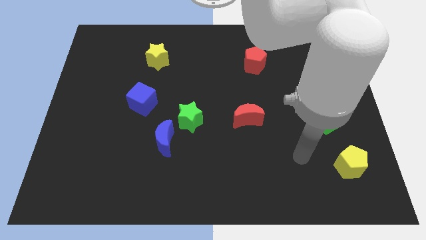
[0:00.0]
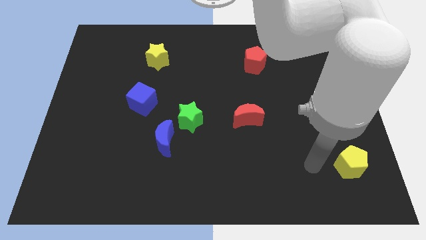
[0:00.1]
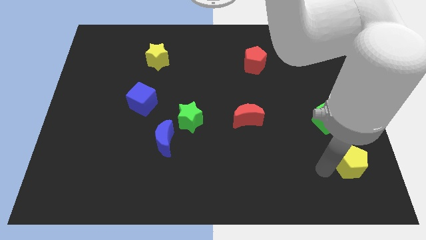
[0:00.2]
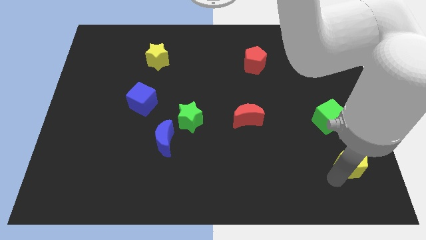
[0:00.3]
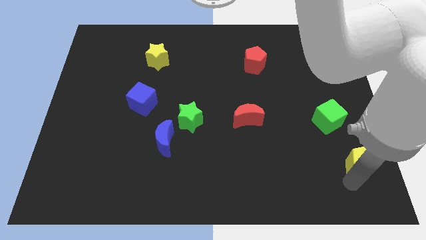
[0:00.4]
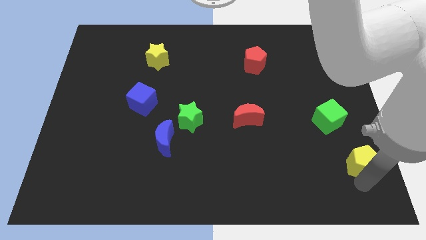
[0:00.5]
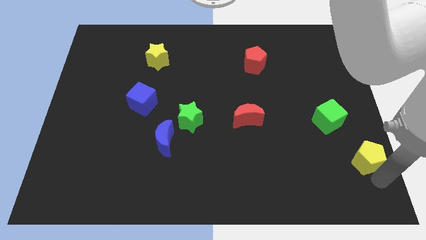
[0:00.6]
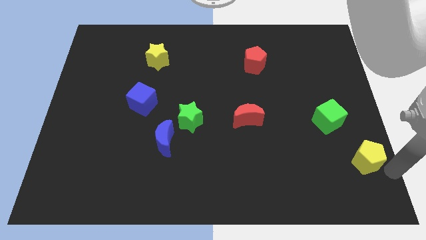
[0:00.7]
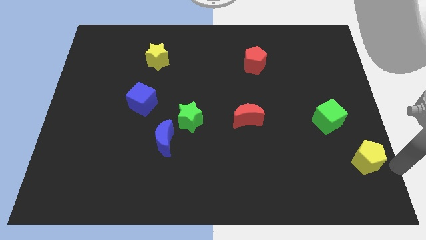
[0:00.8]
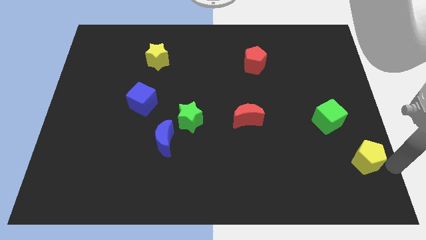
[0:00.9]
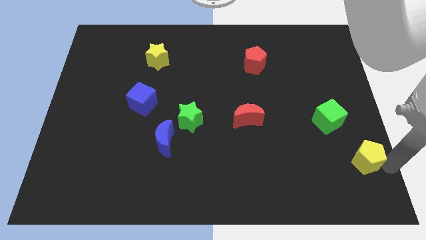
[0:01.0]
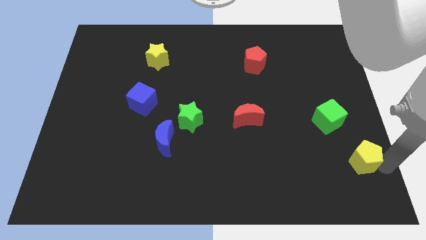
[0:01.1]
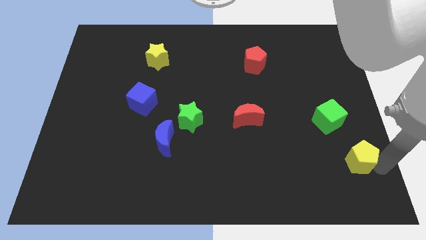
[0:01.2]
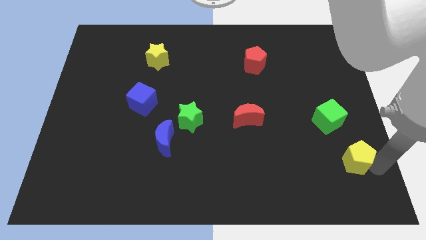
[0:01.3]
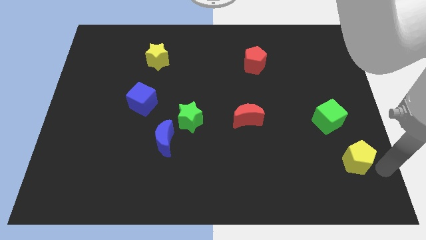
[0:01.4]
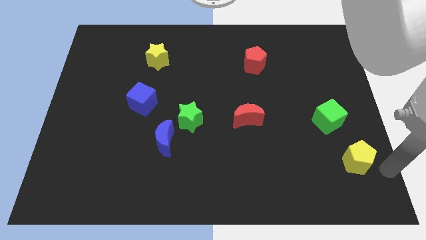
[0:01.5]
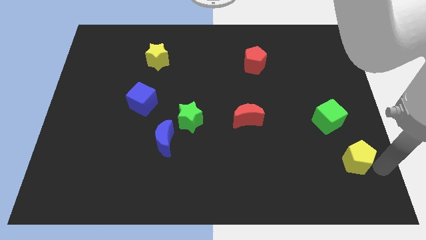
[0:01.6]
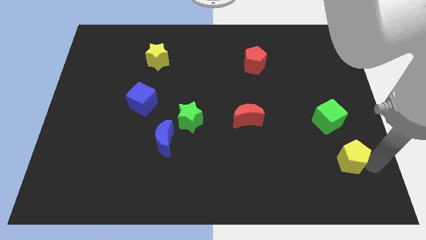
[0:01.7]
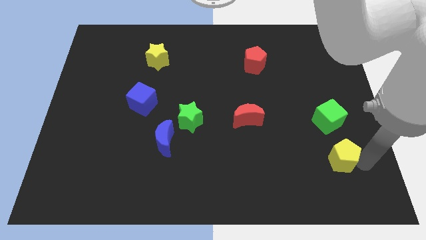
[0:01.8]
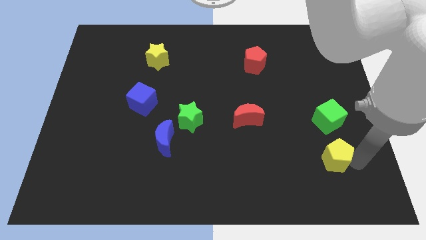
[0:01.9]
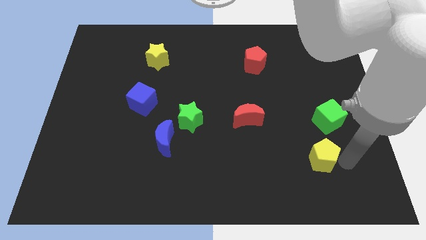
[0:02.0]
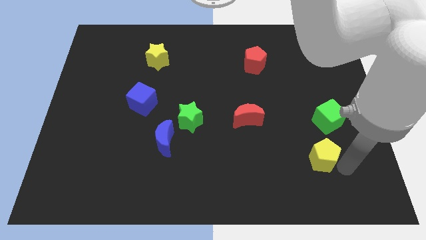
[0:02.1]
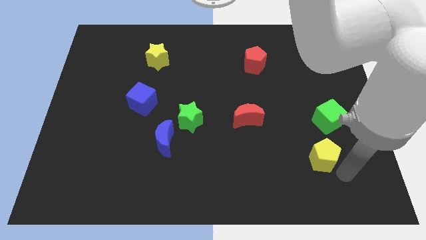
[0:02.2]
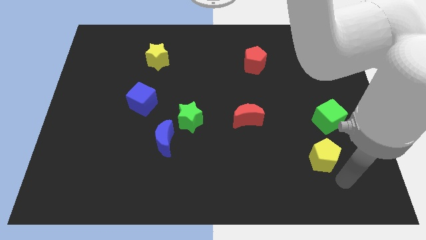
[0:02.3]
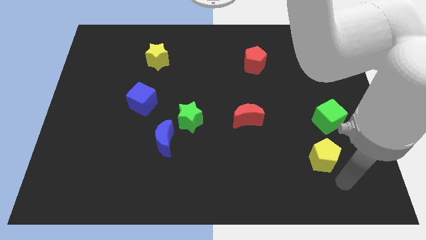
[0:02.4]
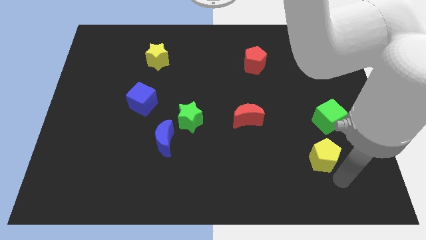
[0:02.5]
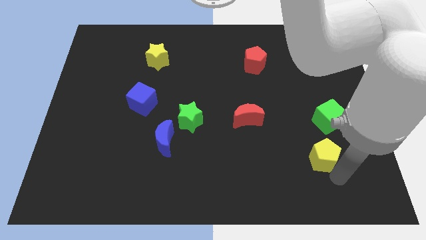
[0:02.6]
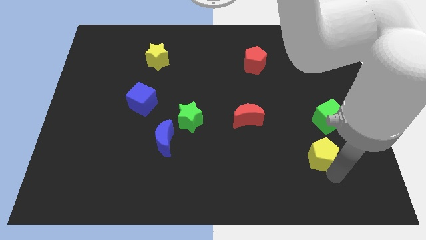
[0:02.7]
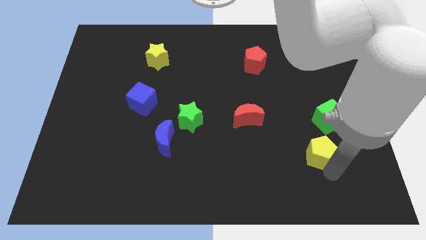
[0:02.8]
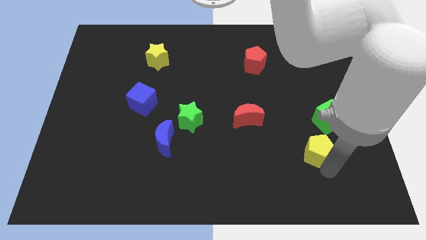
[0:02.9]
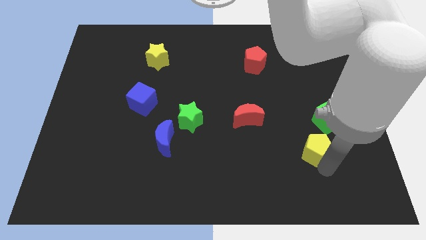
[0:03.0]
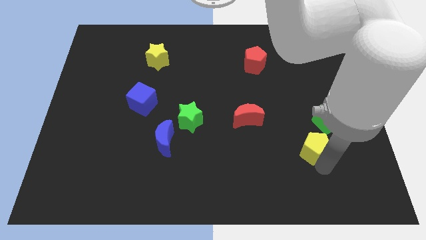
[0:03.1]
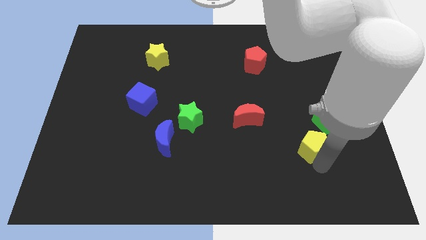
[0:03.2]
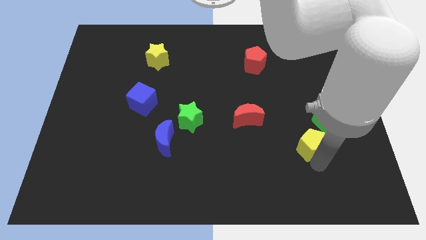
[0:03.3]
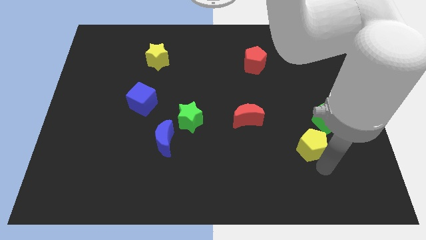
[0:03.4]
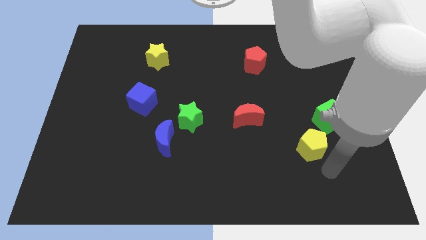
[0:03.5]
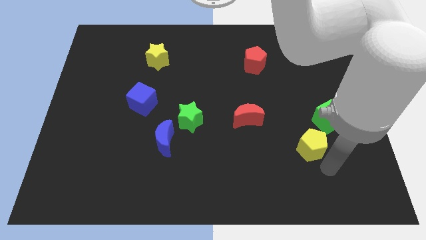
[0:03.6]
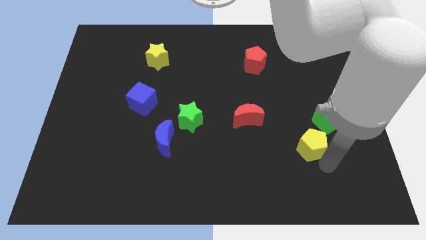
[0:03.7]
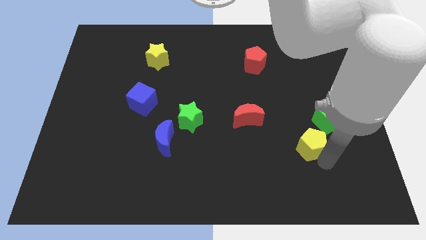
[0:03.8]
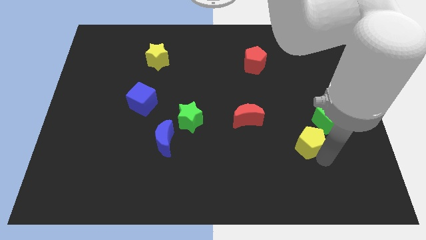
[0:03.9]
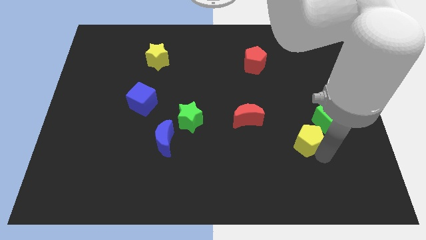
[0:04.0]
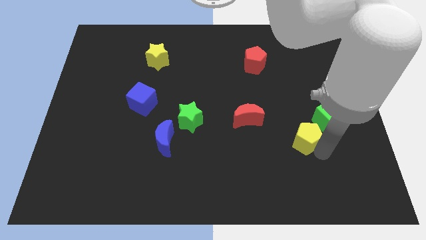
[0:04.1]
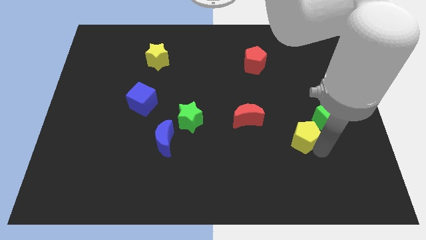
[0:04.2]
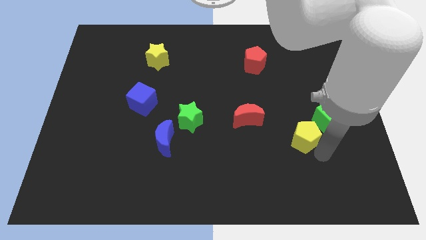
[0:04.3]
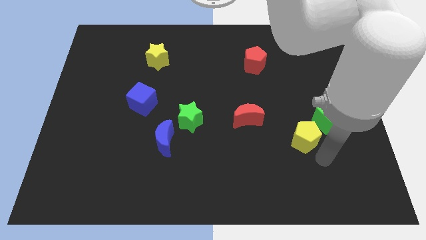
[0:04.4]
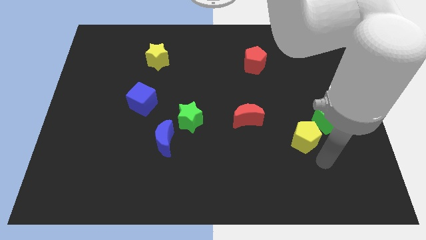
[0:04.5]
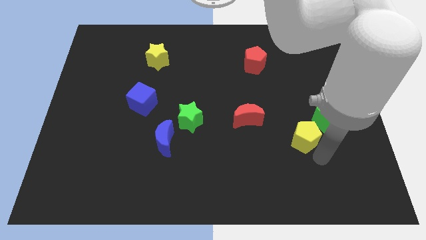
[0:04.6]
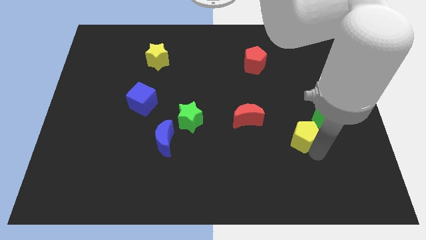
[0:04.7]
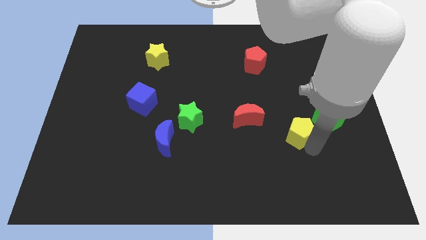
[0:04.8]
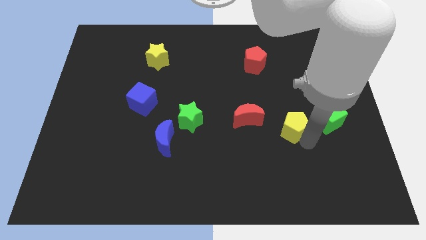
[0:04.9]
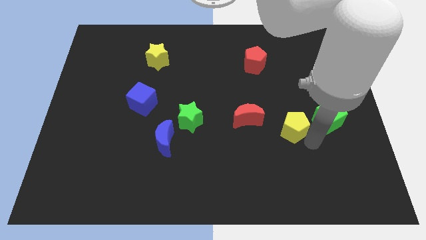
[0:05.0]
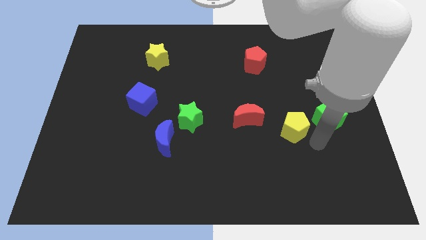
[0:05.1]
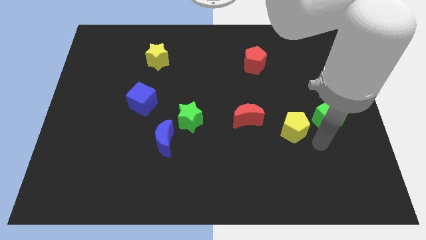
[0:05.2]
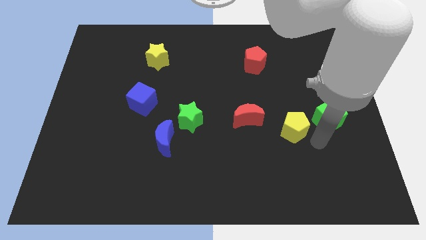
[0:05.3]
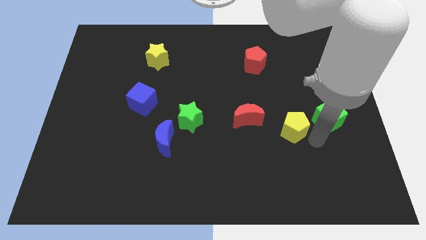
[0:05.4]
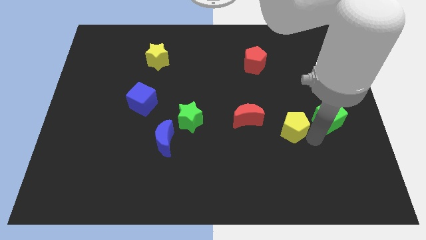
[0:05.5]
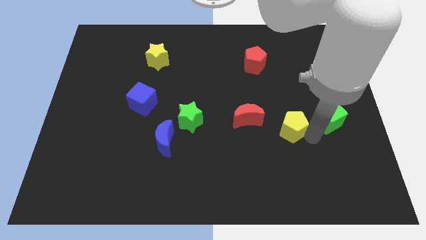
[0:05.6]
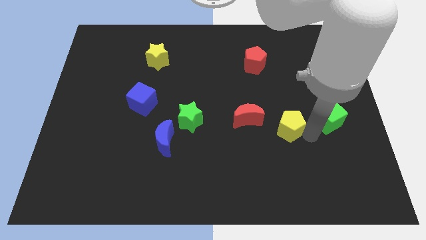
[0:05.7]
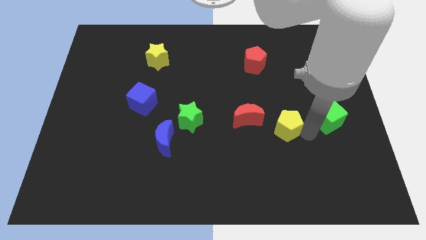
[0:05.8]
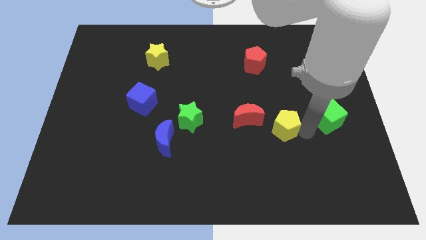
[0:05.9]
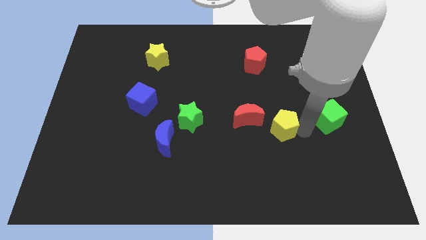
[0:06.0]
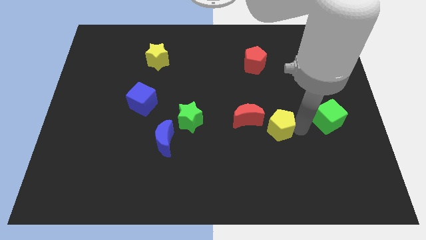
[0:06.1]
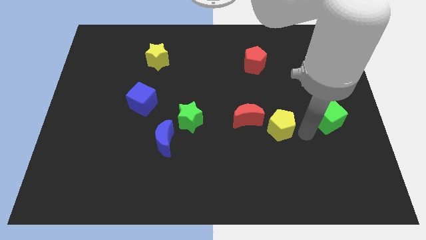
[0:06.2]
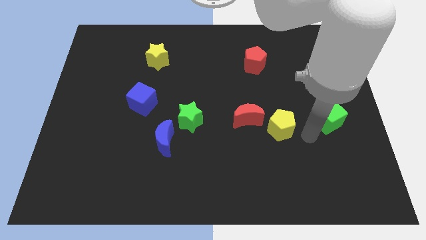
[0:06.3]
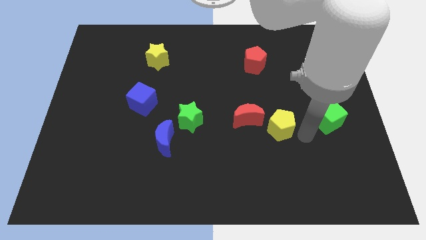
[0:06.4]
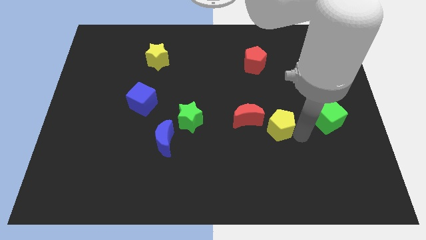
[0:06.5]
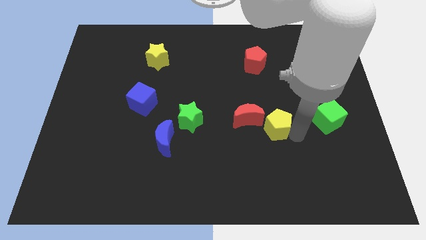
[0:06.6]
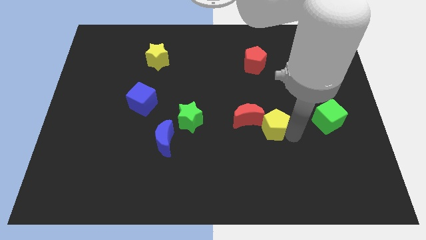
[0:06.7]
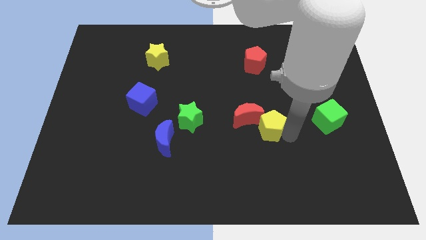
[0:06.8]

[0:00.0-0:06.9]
slide the yellow pentagon next to the red moon
